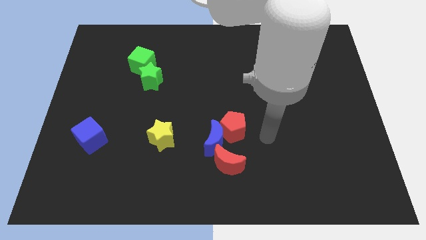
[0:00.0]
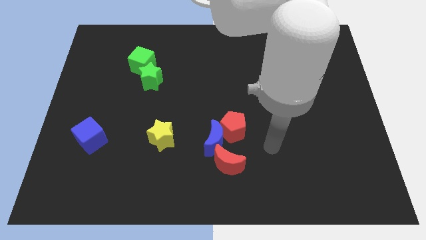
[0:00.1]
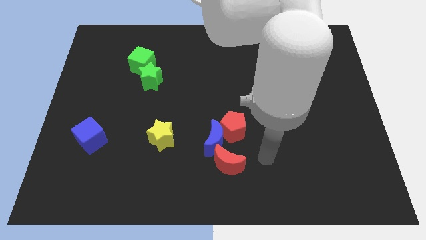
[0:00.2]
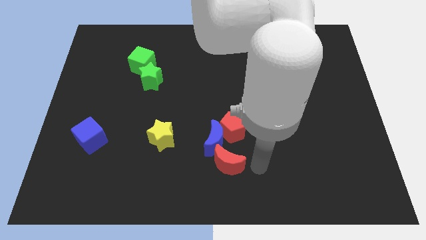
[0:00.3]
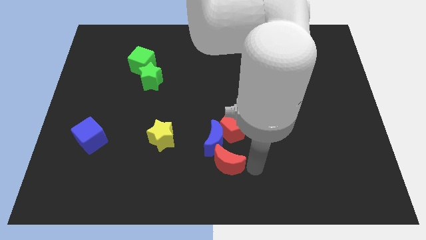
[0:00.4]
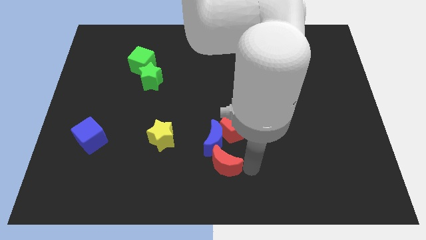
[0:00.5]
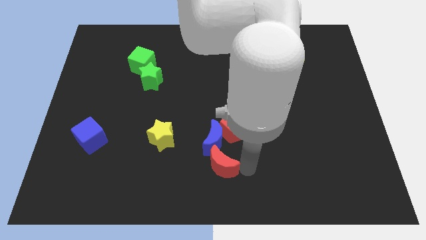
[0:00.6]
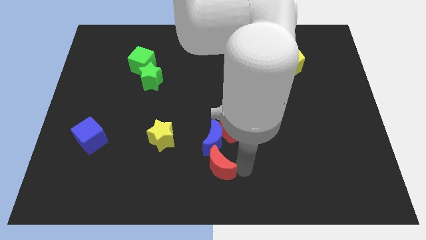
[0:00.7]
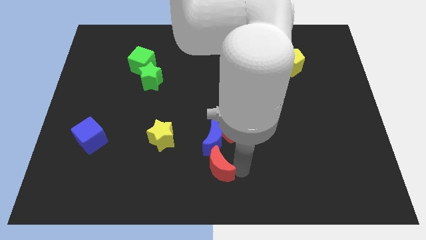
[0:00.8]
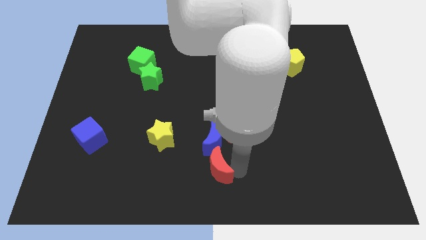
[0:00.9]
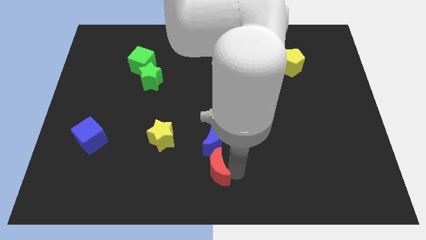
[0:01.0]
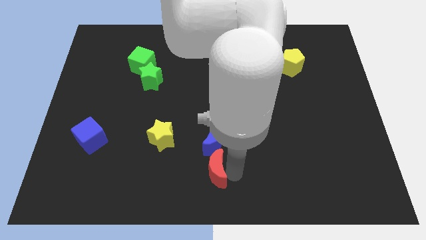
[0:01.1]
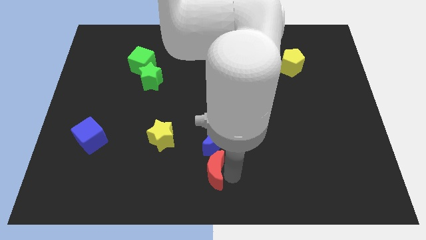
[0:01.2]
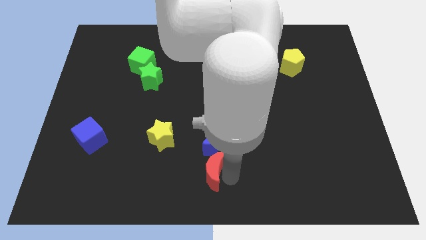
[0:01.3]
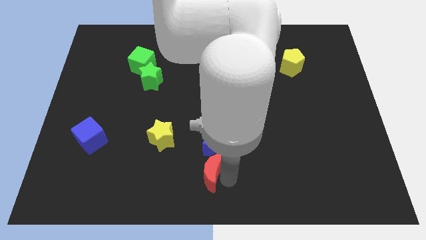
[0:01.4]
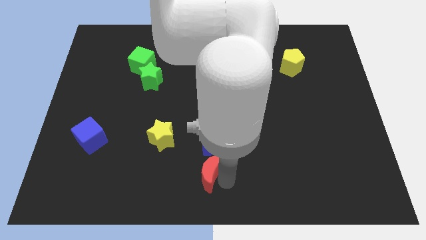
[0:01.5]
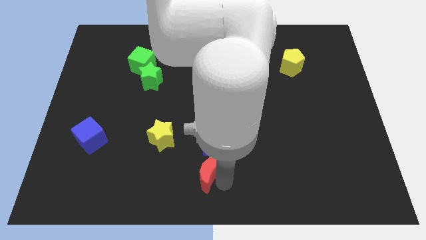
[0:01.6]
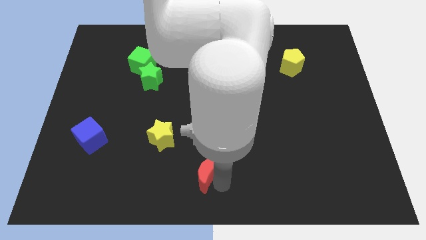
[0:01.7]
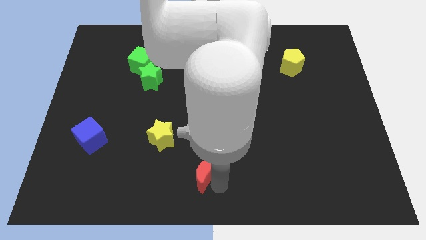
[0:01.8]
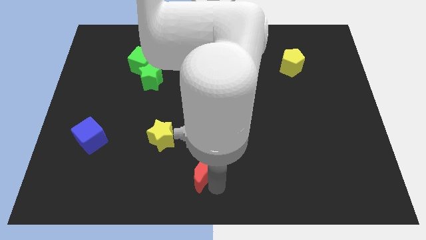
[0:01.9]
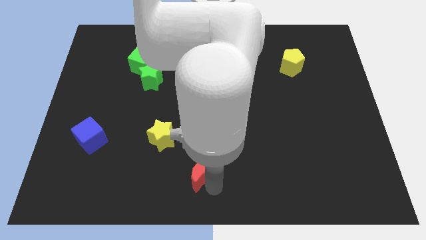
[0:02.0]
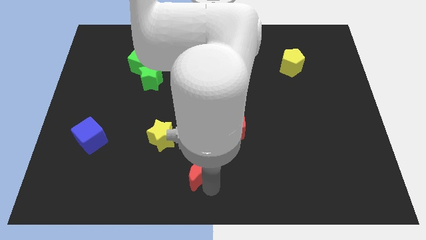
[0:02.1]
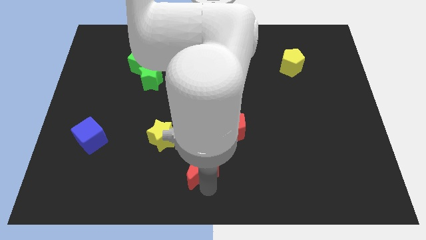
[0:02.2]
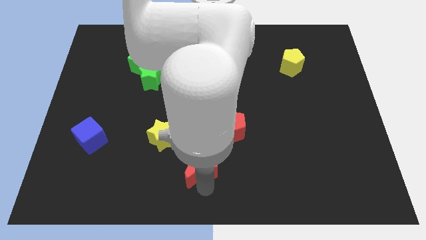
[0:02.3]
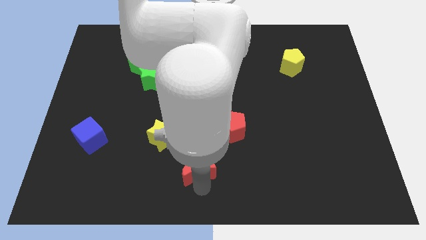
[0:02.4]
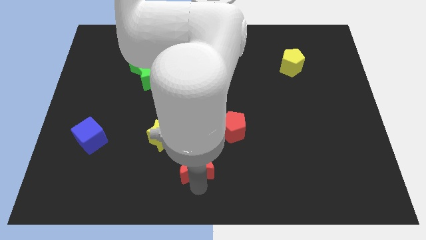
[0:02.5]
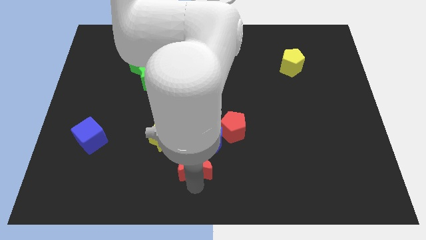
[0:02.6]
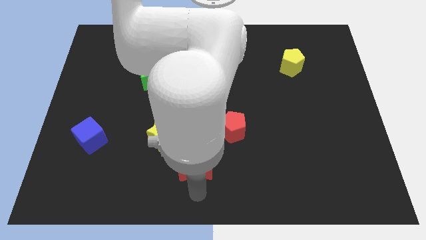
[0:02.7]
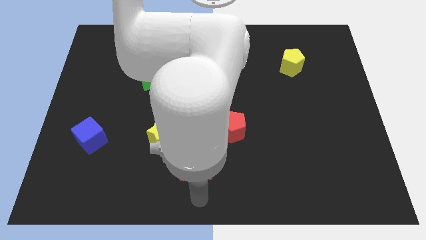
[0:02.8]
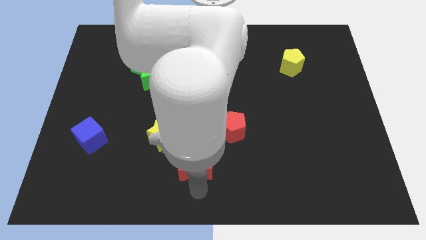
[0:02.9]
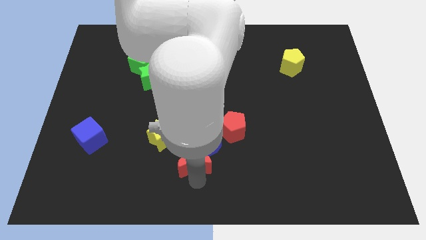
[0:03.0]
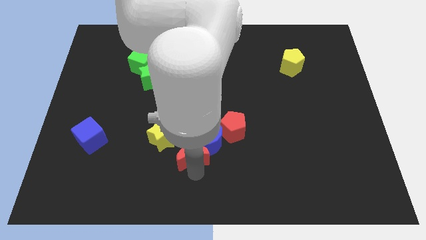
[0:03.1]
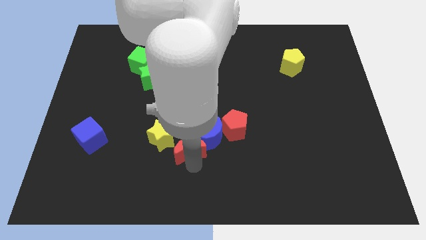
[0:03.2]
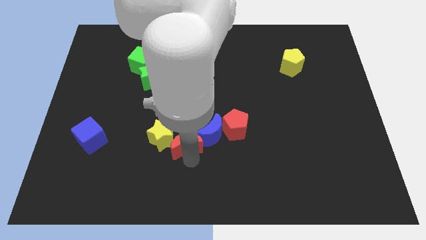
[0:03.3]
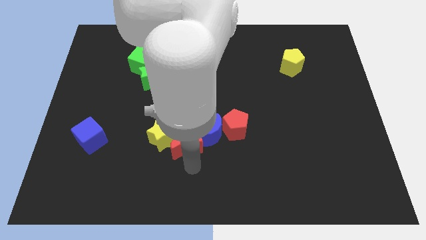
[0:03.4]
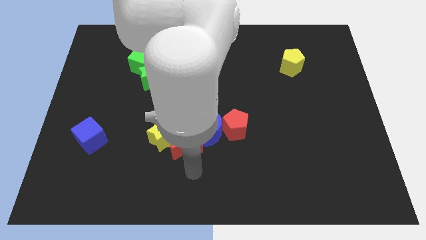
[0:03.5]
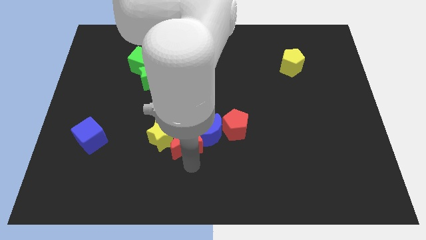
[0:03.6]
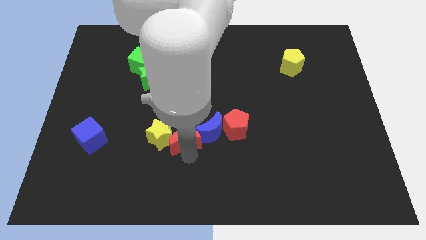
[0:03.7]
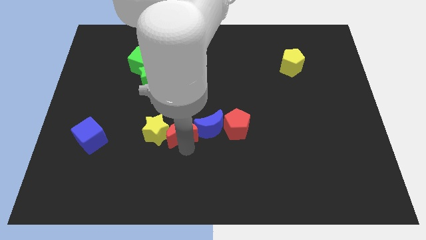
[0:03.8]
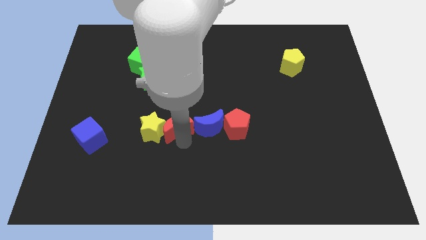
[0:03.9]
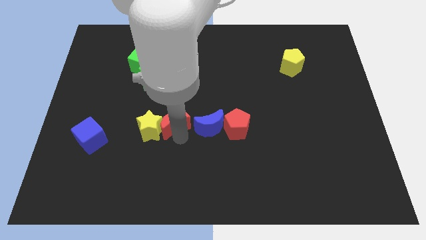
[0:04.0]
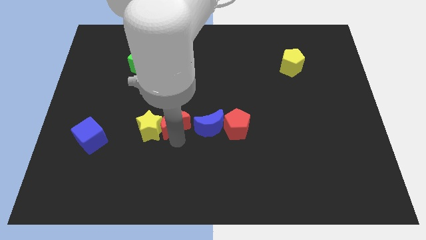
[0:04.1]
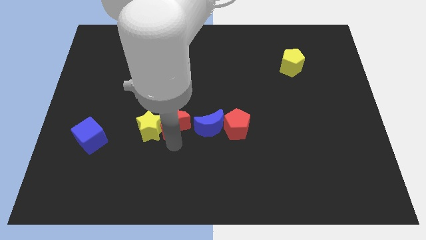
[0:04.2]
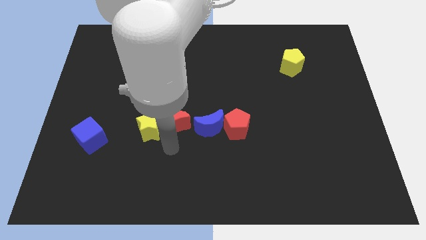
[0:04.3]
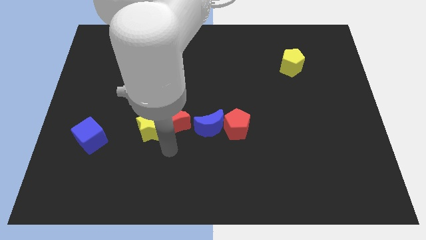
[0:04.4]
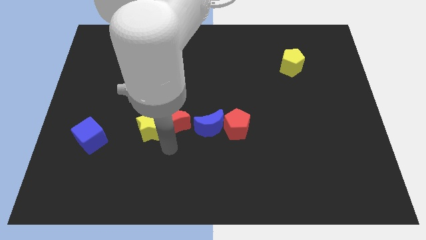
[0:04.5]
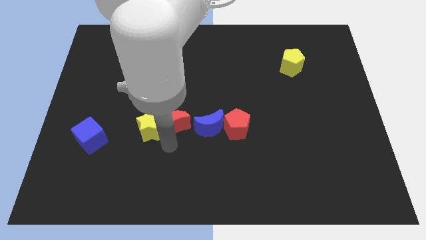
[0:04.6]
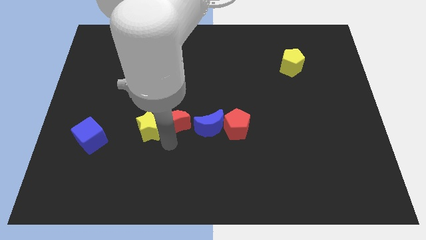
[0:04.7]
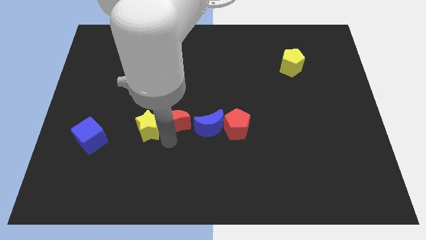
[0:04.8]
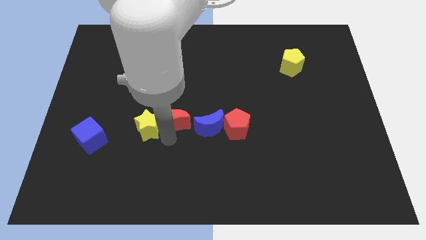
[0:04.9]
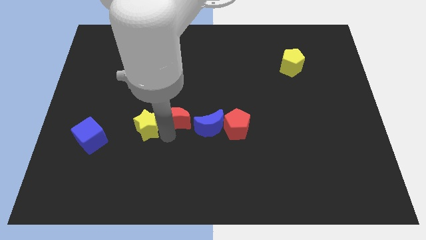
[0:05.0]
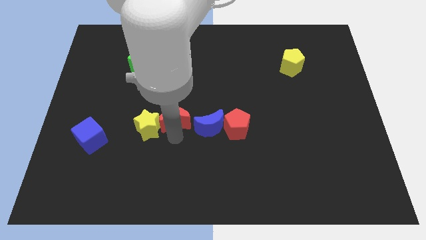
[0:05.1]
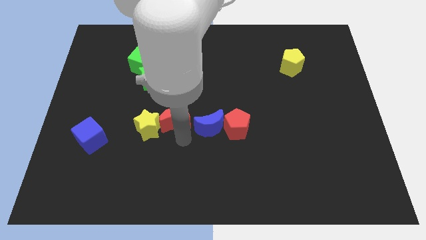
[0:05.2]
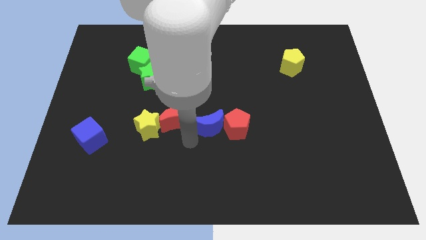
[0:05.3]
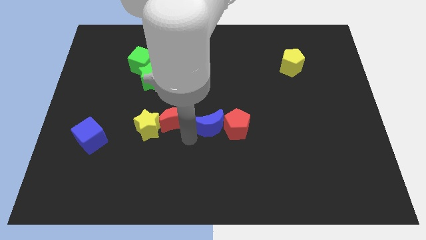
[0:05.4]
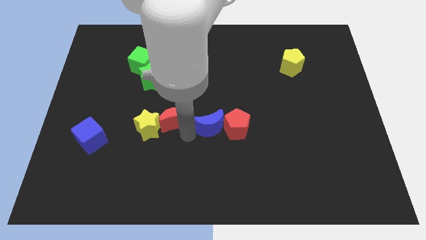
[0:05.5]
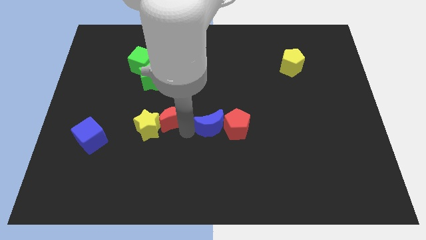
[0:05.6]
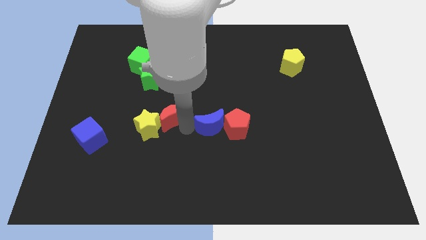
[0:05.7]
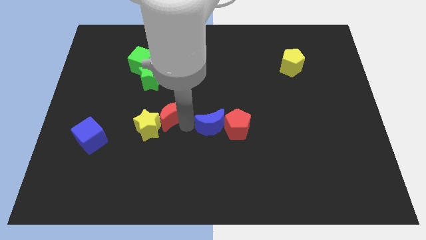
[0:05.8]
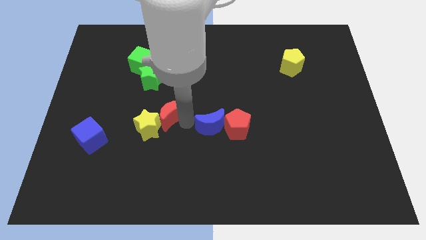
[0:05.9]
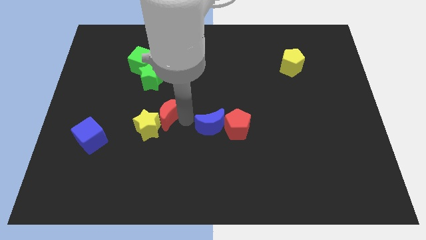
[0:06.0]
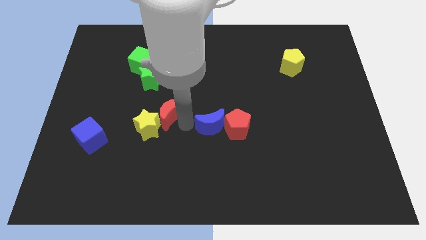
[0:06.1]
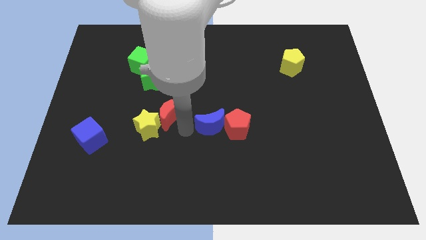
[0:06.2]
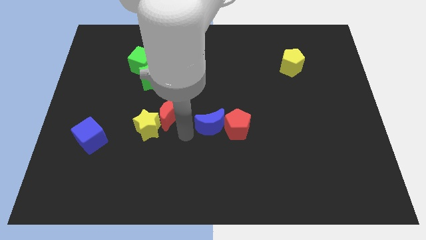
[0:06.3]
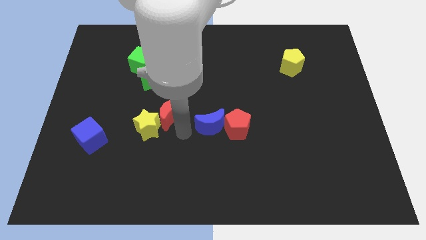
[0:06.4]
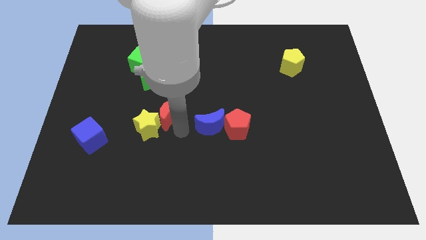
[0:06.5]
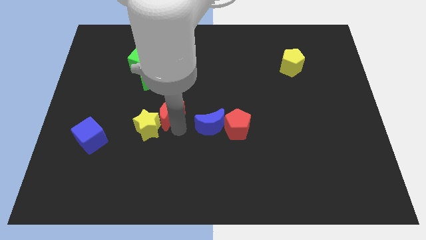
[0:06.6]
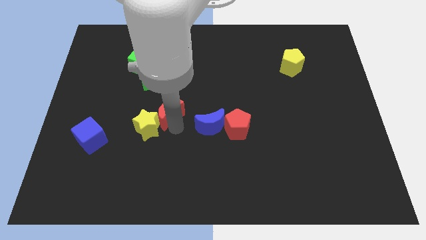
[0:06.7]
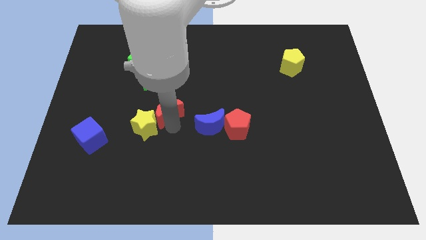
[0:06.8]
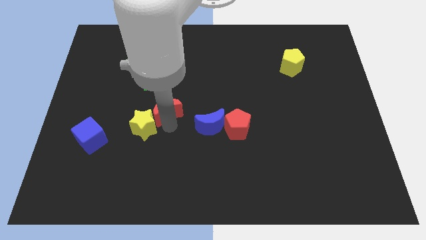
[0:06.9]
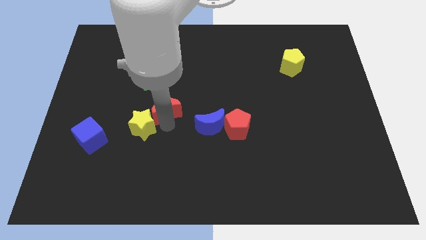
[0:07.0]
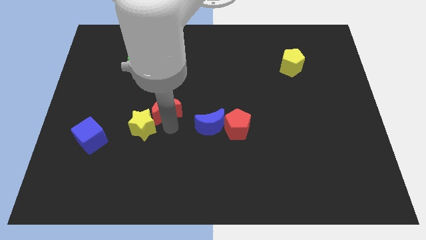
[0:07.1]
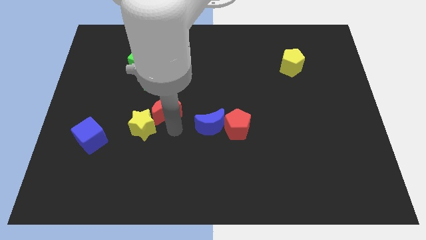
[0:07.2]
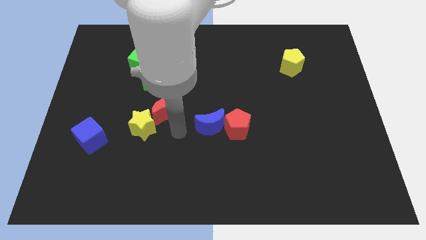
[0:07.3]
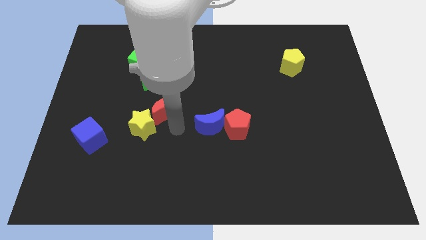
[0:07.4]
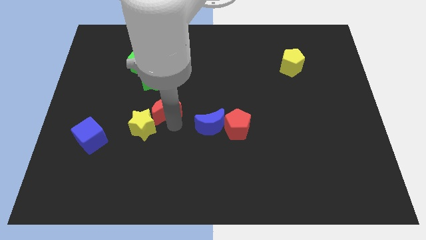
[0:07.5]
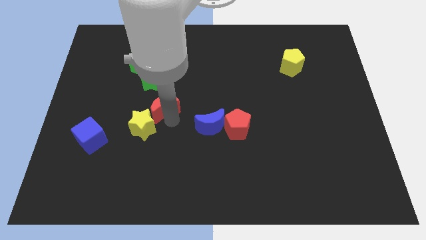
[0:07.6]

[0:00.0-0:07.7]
push the red moon up and then to the left
